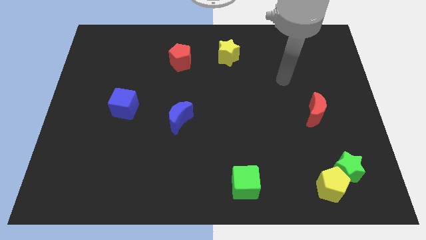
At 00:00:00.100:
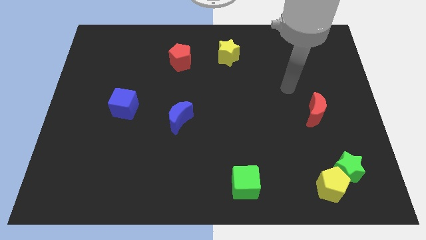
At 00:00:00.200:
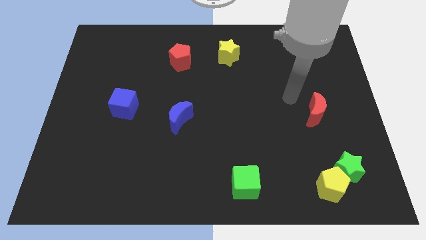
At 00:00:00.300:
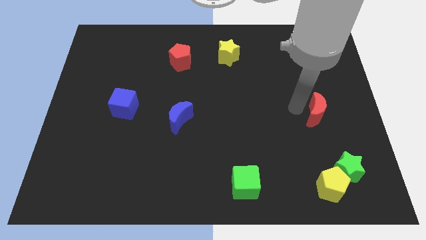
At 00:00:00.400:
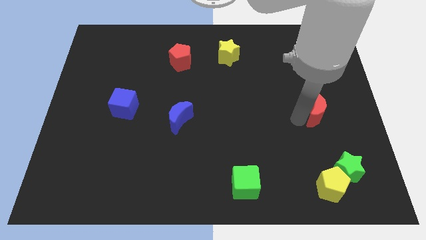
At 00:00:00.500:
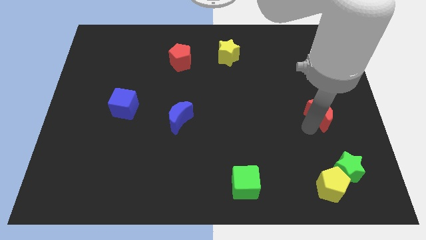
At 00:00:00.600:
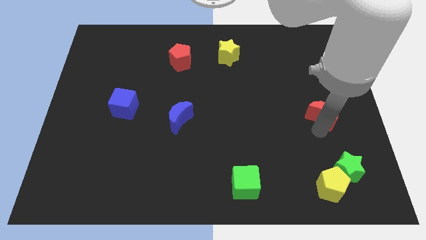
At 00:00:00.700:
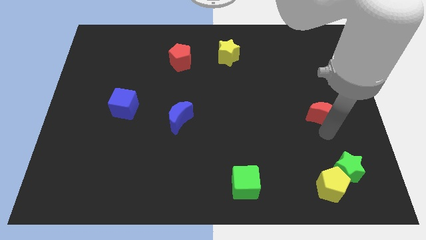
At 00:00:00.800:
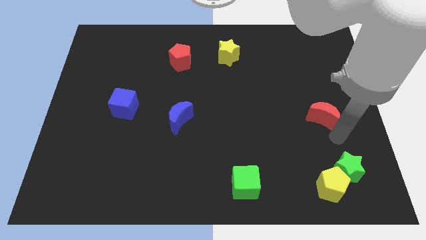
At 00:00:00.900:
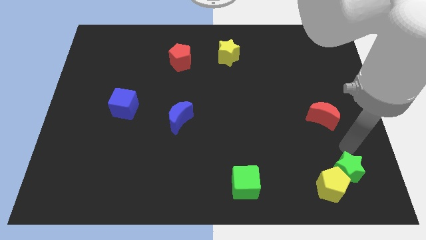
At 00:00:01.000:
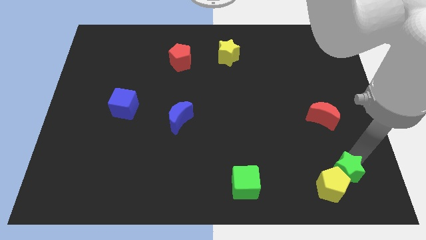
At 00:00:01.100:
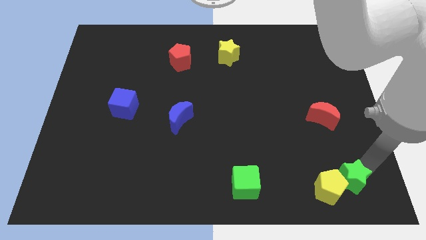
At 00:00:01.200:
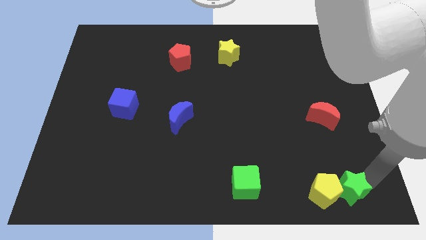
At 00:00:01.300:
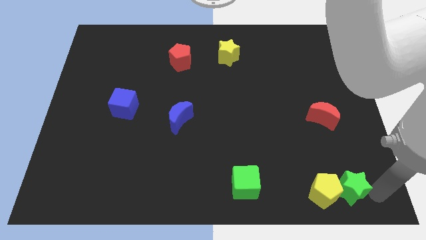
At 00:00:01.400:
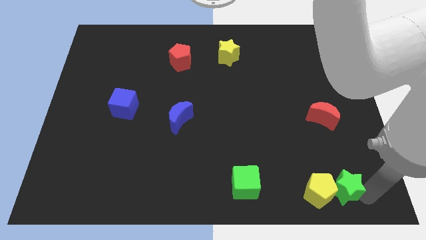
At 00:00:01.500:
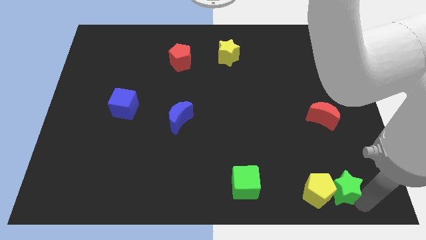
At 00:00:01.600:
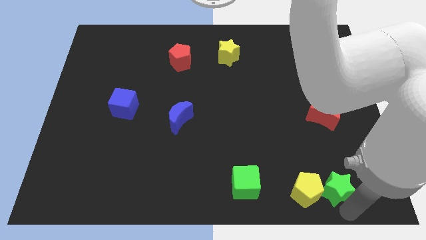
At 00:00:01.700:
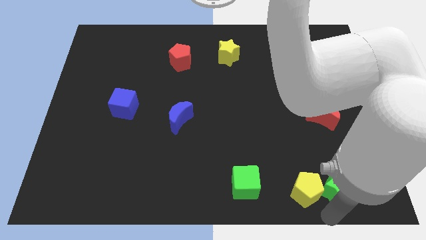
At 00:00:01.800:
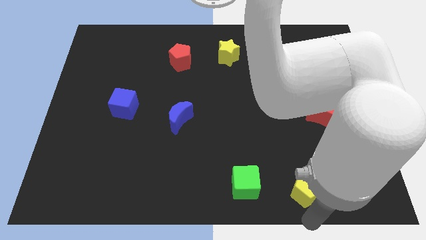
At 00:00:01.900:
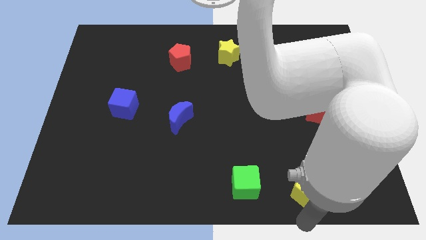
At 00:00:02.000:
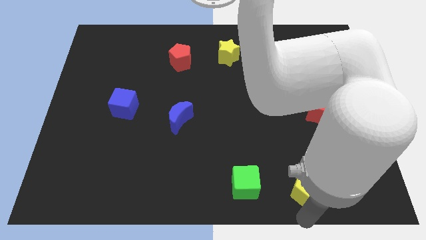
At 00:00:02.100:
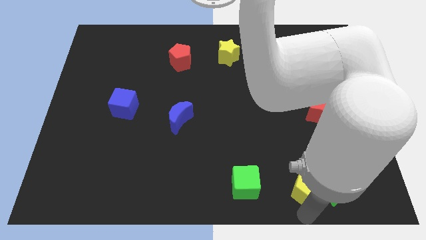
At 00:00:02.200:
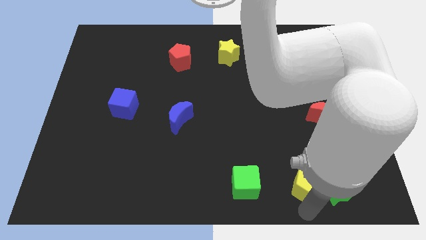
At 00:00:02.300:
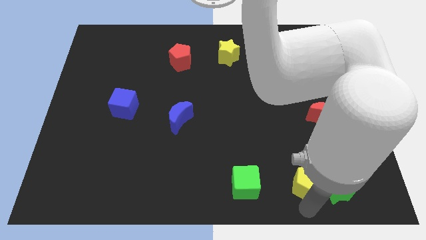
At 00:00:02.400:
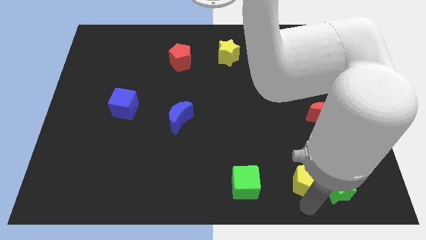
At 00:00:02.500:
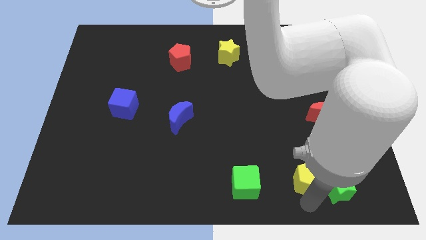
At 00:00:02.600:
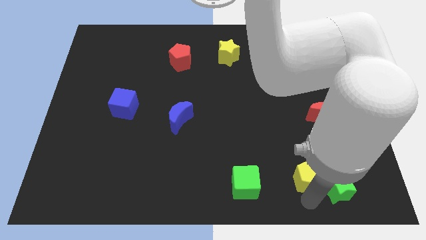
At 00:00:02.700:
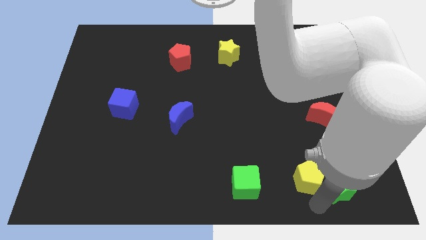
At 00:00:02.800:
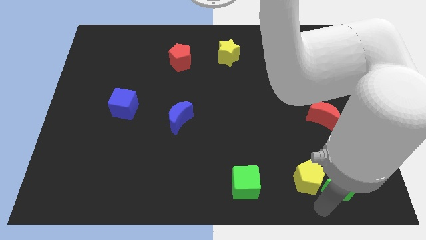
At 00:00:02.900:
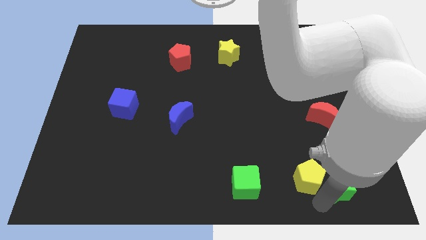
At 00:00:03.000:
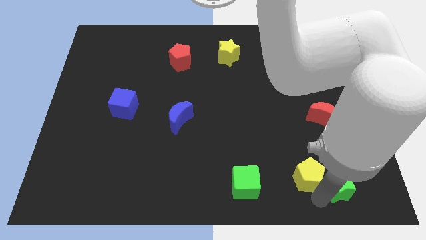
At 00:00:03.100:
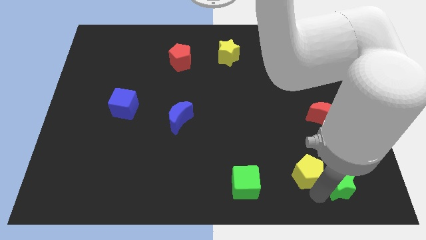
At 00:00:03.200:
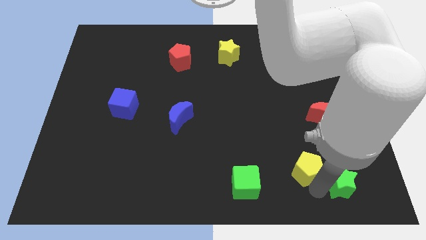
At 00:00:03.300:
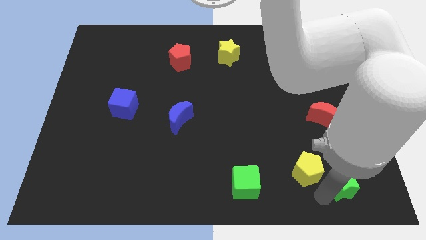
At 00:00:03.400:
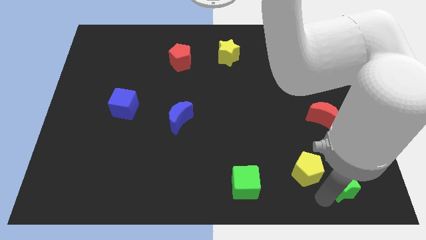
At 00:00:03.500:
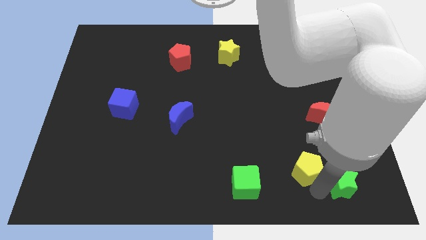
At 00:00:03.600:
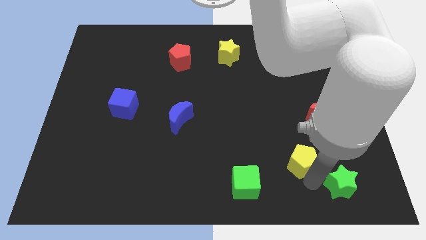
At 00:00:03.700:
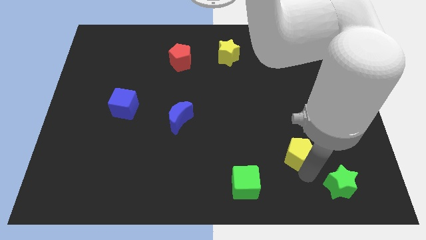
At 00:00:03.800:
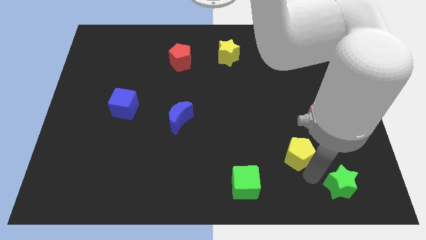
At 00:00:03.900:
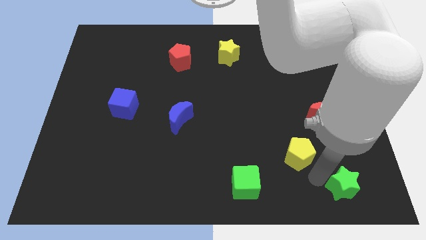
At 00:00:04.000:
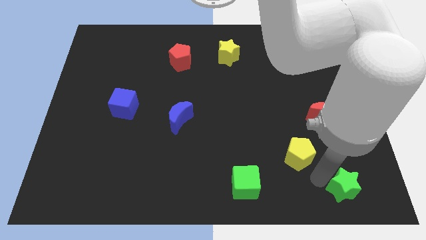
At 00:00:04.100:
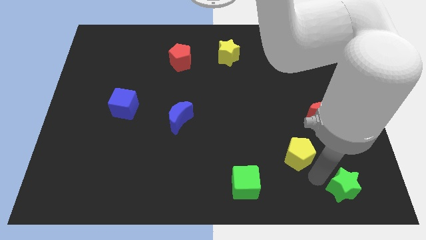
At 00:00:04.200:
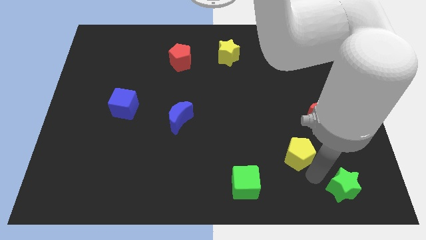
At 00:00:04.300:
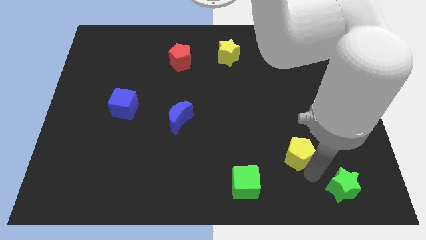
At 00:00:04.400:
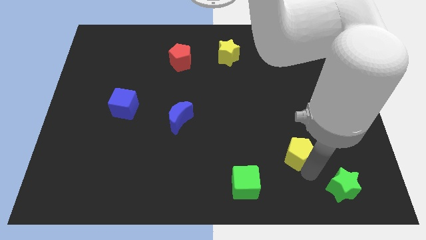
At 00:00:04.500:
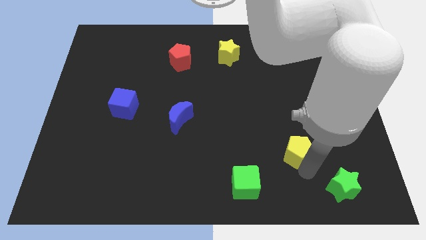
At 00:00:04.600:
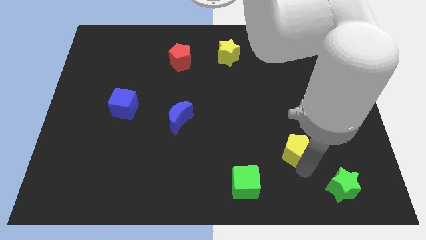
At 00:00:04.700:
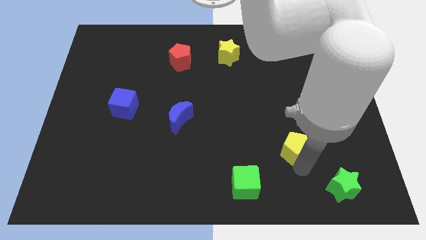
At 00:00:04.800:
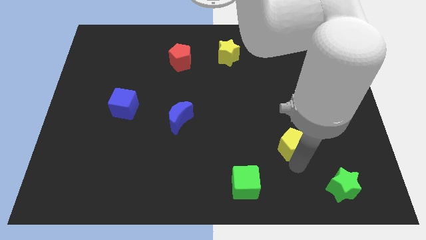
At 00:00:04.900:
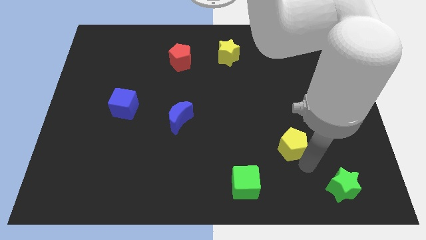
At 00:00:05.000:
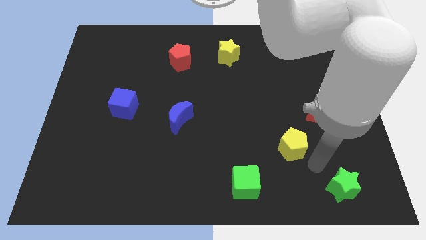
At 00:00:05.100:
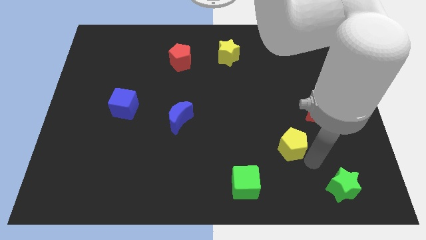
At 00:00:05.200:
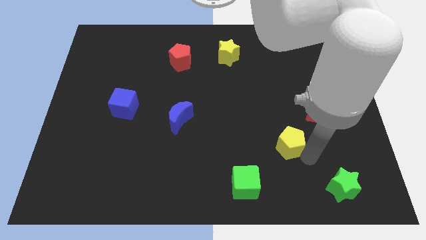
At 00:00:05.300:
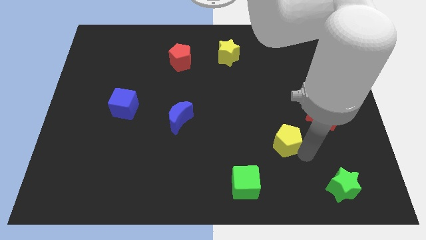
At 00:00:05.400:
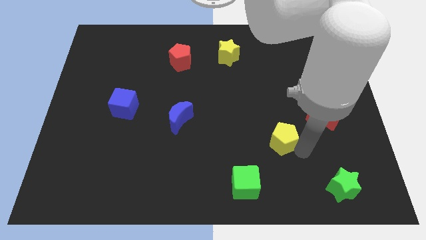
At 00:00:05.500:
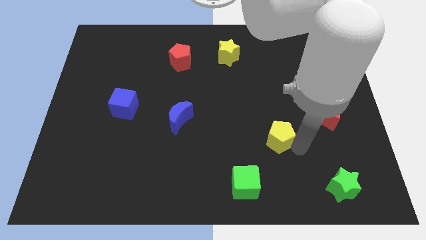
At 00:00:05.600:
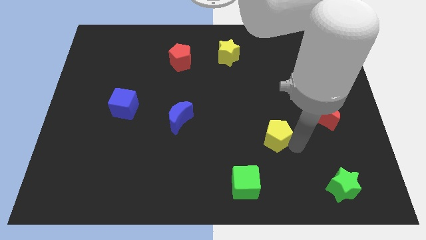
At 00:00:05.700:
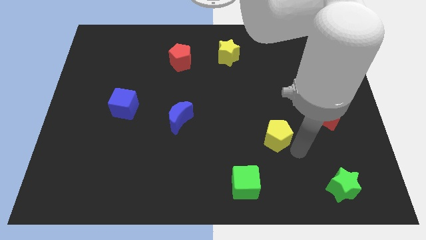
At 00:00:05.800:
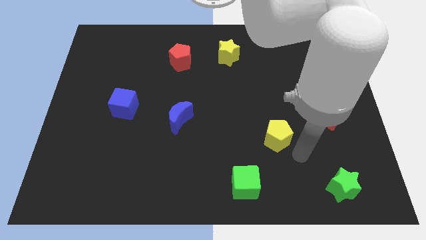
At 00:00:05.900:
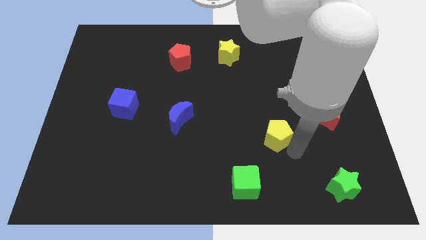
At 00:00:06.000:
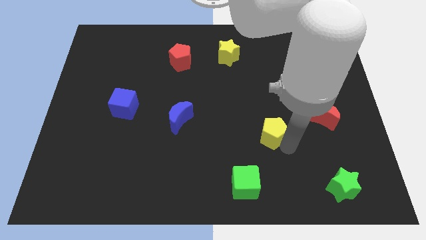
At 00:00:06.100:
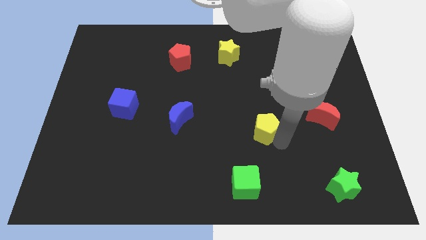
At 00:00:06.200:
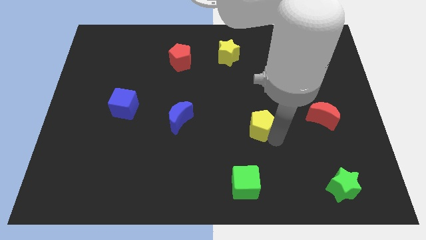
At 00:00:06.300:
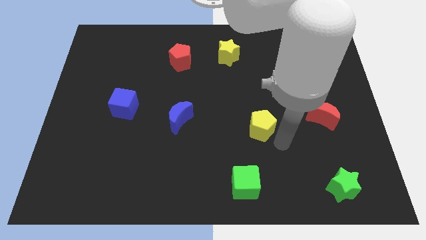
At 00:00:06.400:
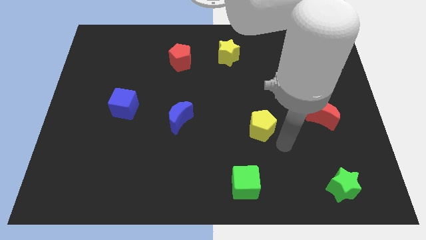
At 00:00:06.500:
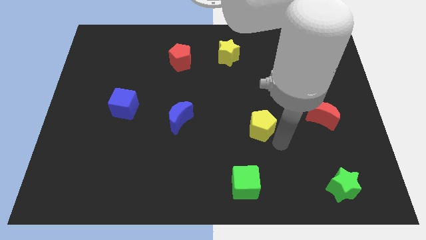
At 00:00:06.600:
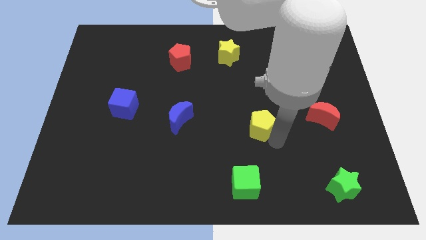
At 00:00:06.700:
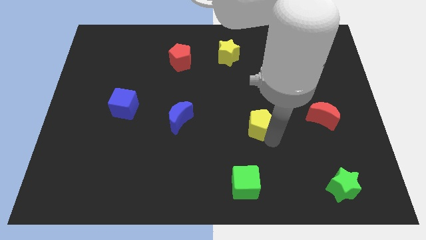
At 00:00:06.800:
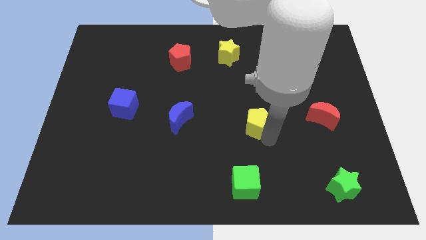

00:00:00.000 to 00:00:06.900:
push the yellow pentagon upwards and to the left diagonally

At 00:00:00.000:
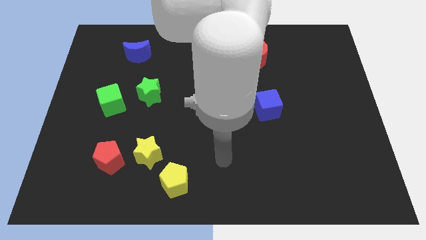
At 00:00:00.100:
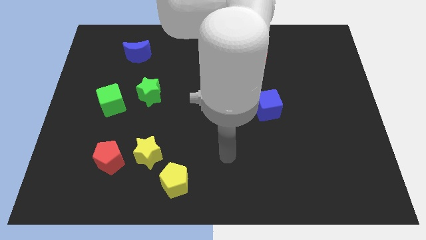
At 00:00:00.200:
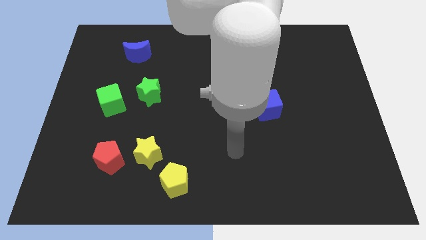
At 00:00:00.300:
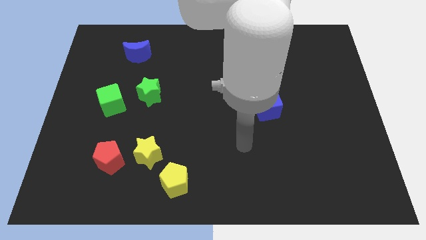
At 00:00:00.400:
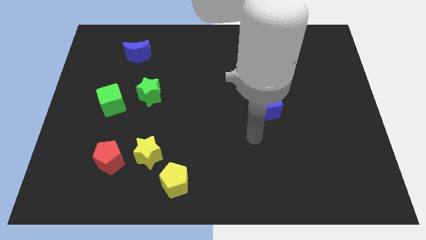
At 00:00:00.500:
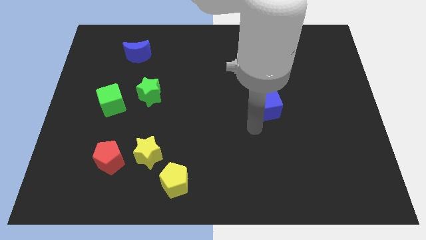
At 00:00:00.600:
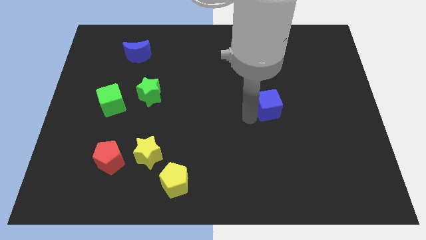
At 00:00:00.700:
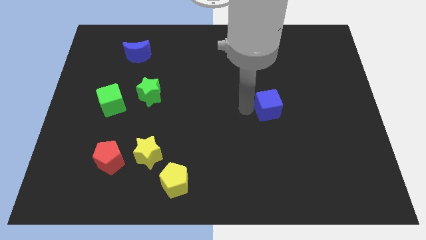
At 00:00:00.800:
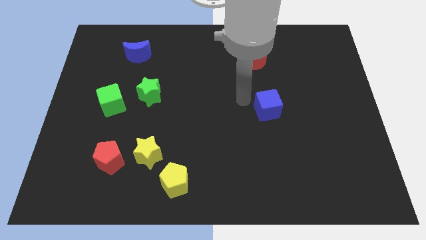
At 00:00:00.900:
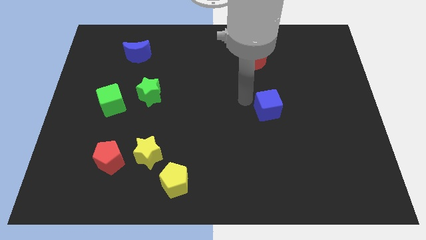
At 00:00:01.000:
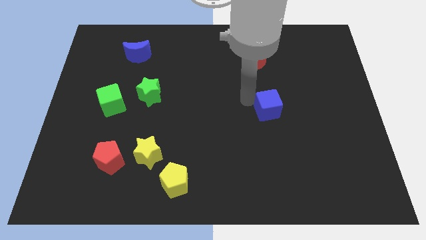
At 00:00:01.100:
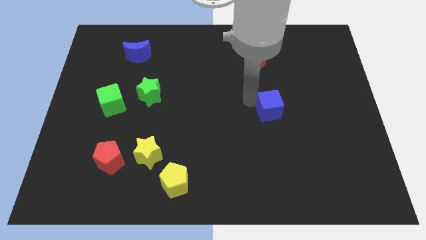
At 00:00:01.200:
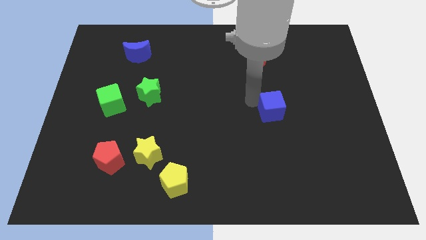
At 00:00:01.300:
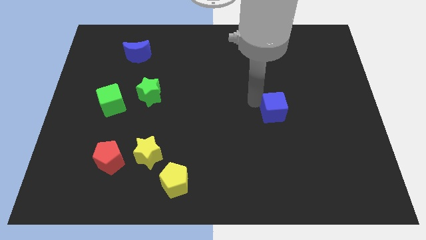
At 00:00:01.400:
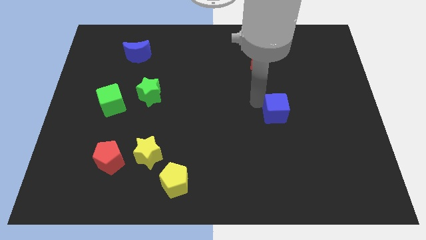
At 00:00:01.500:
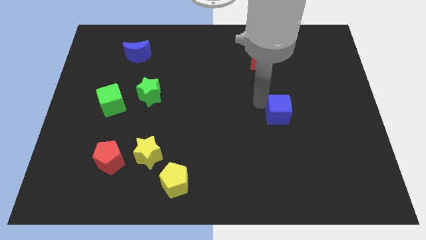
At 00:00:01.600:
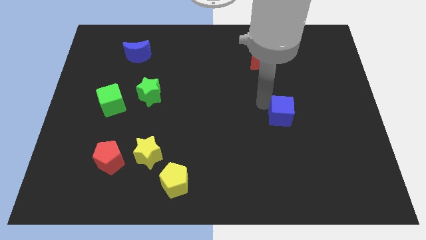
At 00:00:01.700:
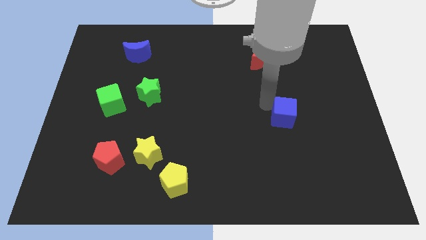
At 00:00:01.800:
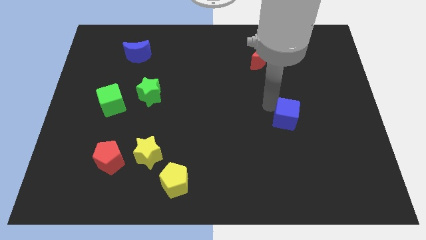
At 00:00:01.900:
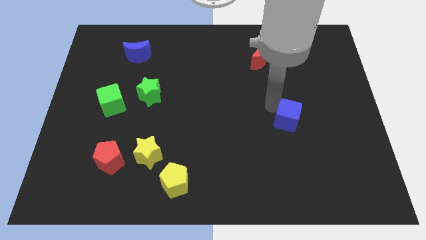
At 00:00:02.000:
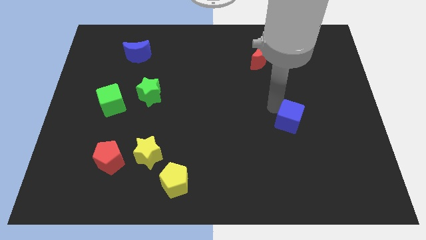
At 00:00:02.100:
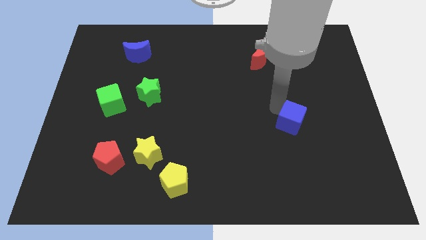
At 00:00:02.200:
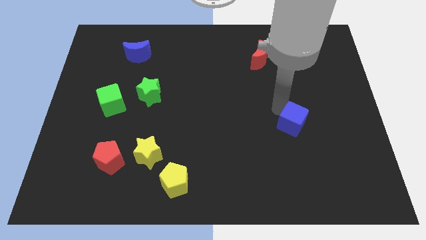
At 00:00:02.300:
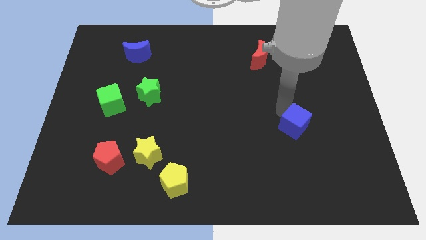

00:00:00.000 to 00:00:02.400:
slide the blue cube a bit downwards and then to the right
